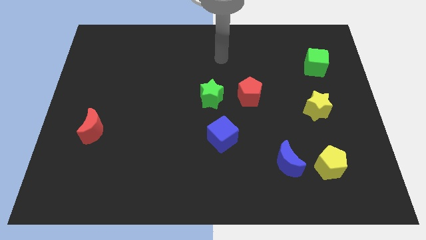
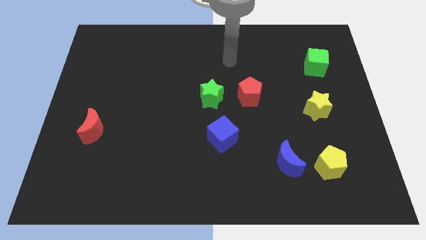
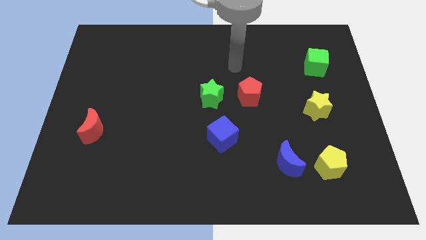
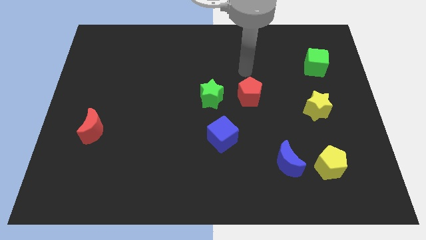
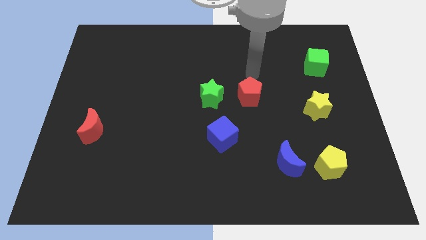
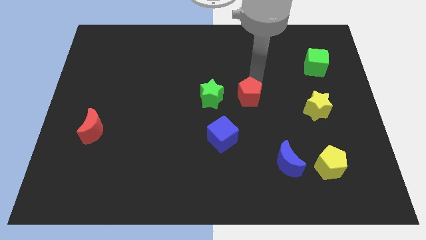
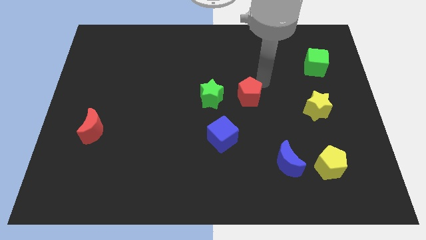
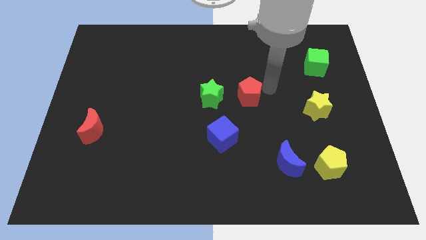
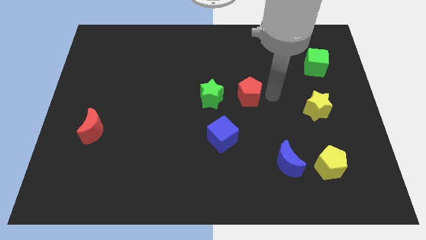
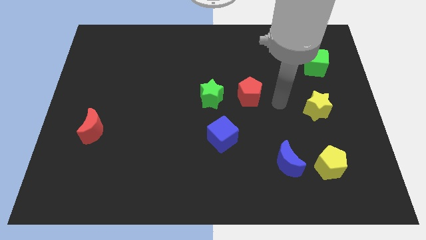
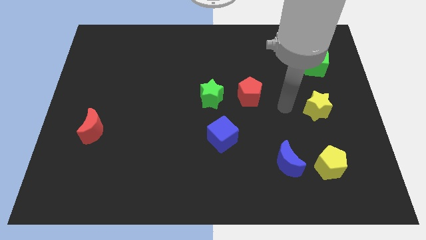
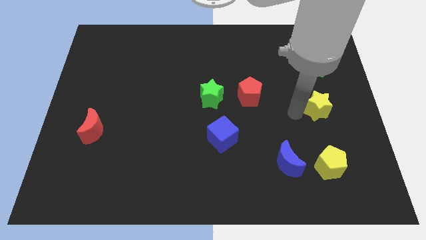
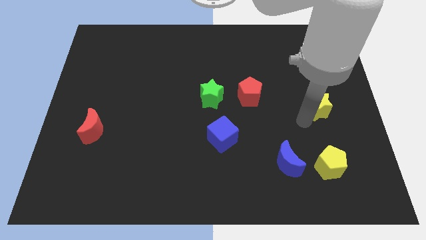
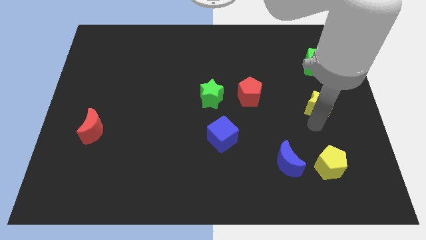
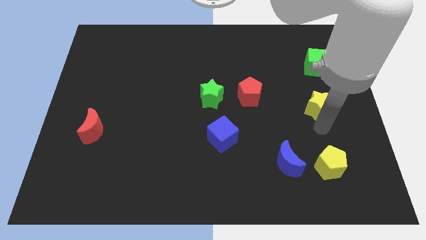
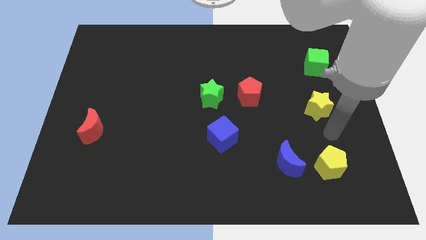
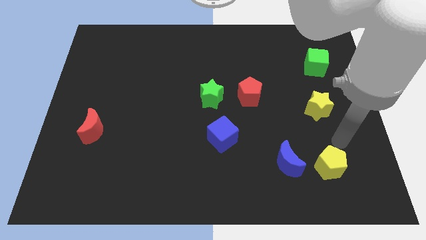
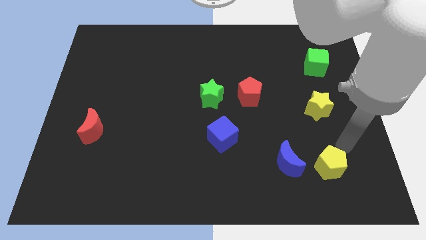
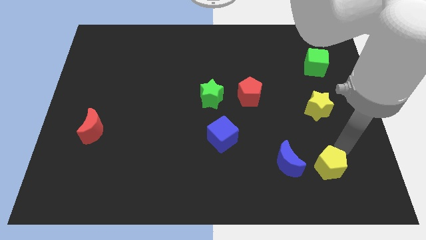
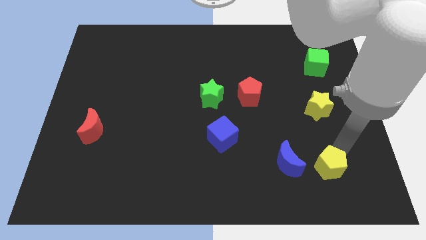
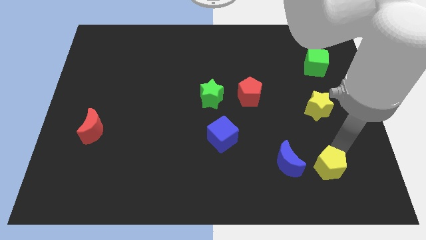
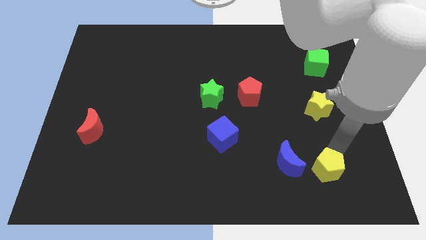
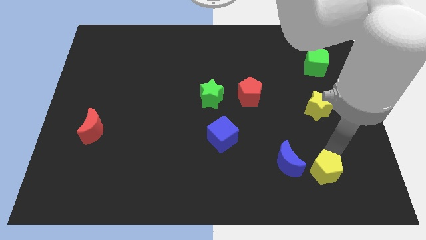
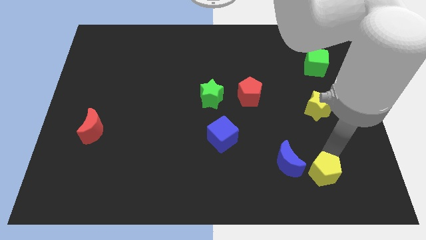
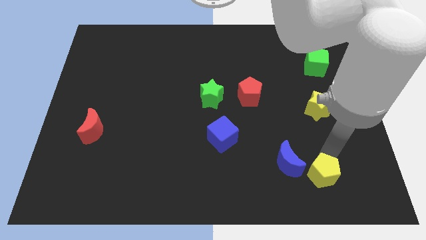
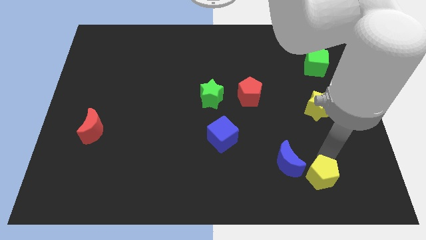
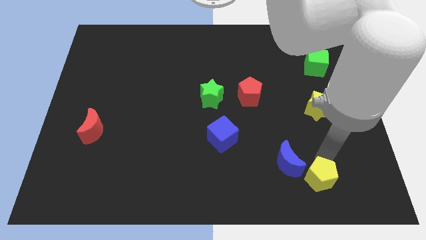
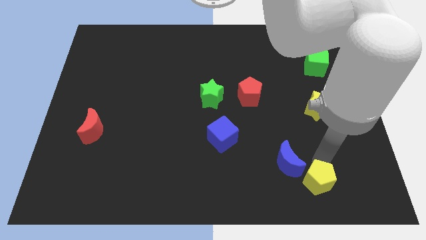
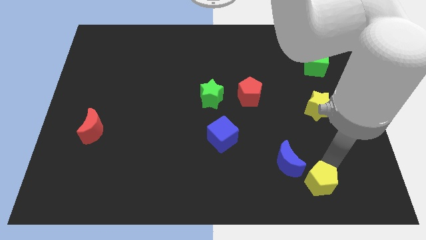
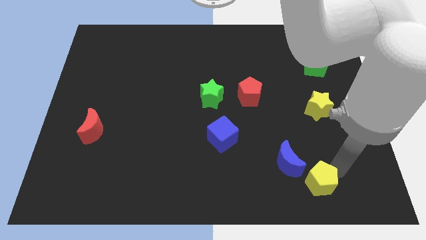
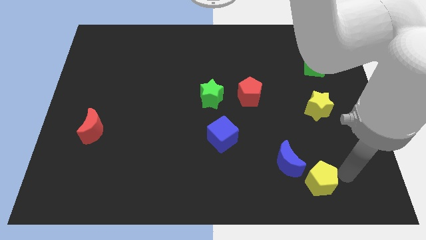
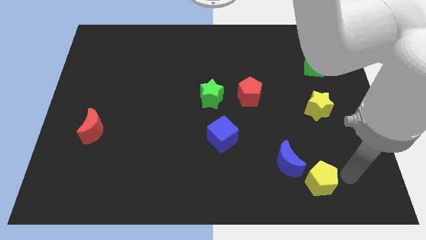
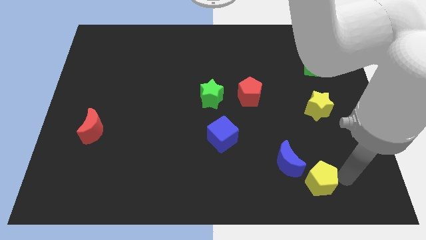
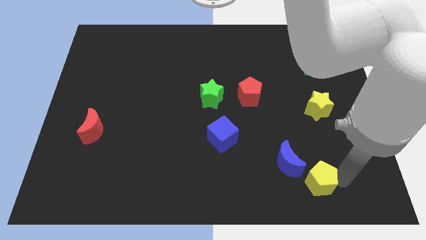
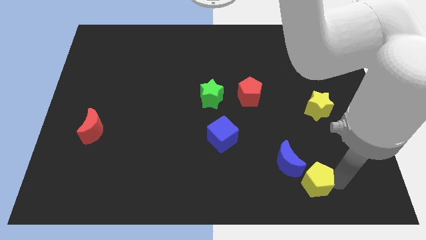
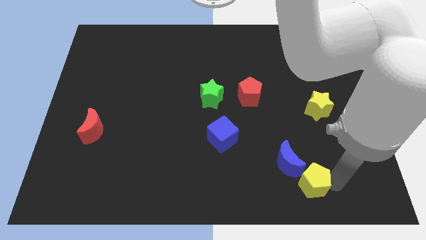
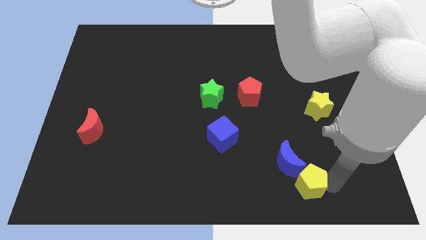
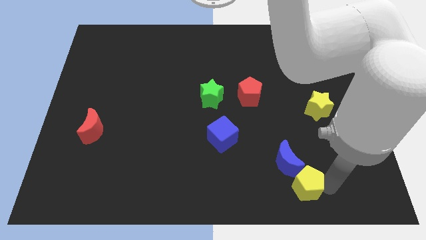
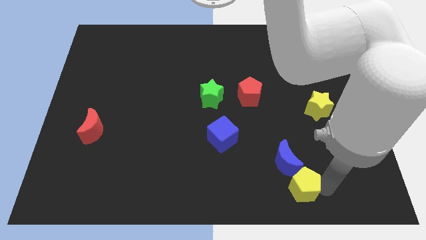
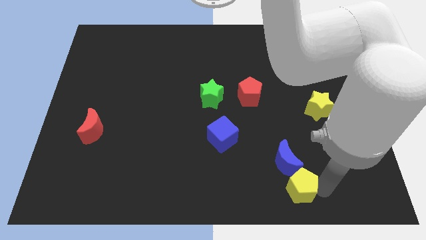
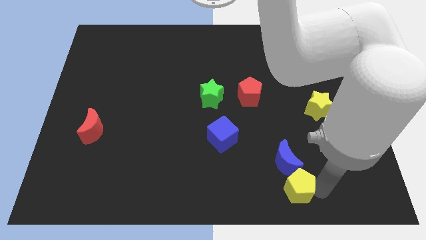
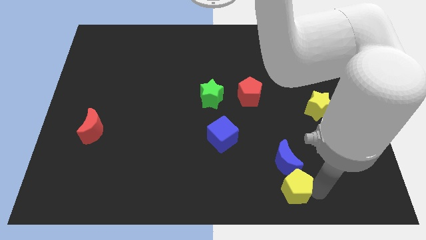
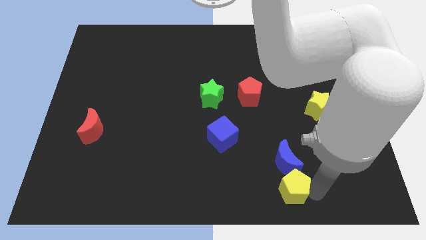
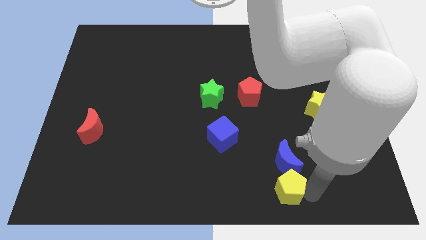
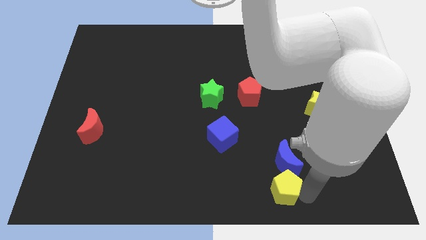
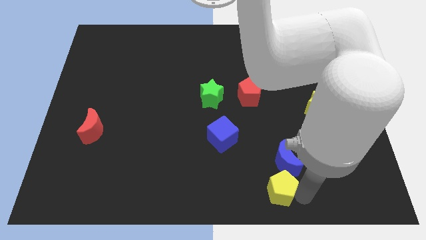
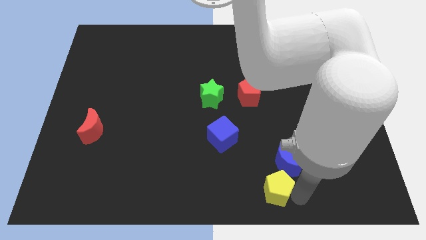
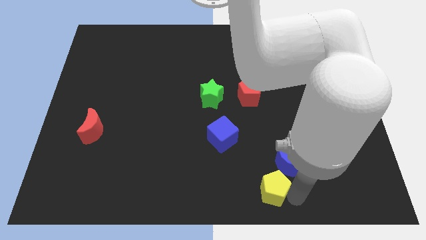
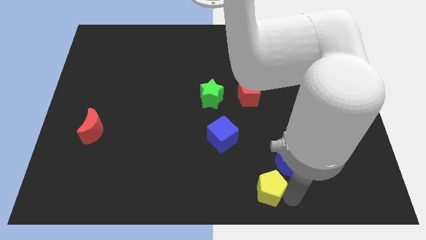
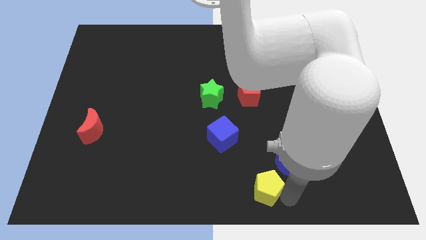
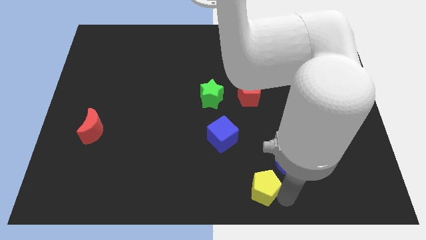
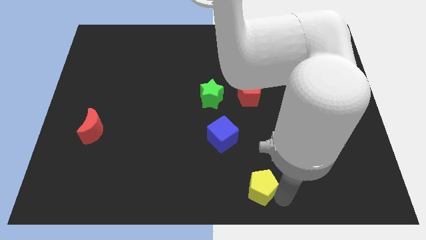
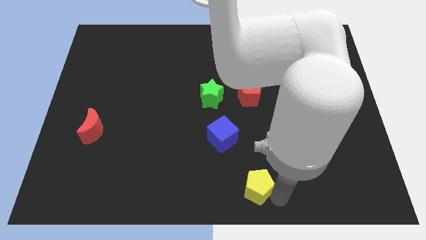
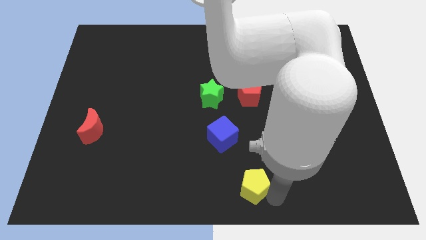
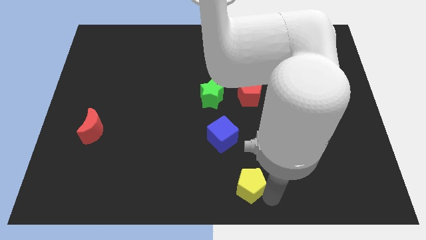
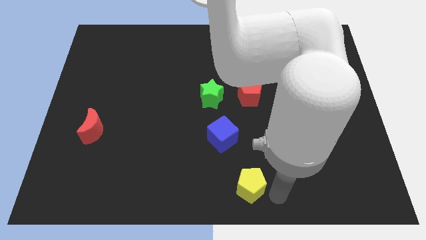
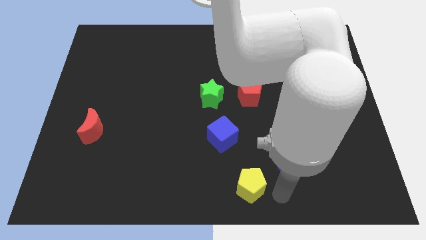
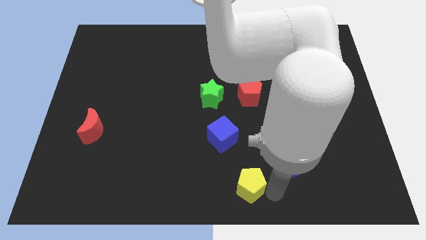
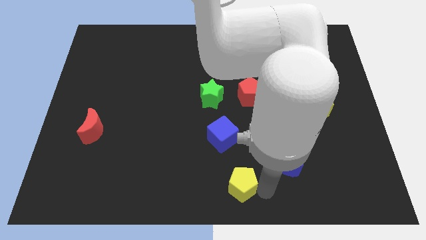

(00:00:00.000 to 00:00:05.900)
push the yellow pentagon to the bottom of the blue cube

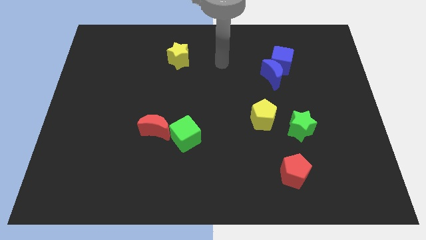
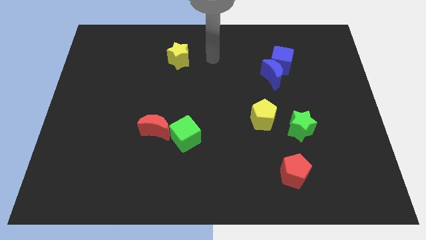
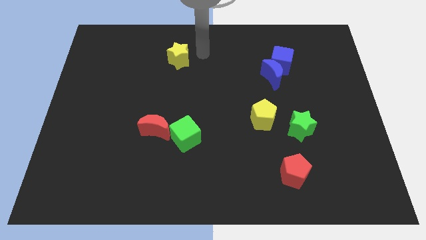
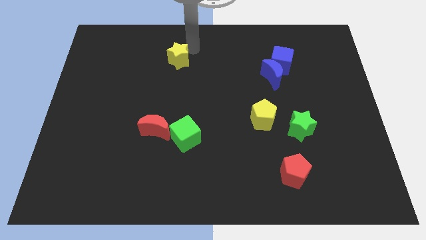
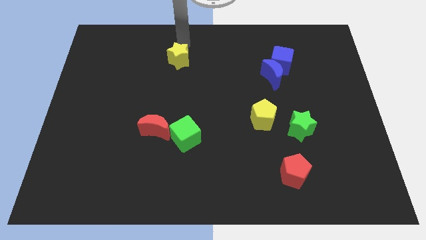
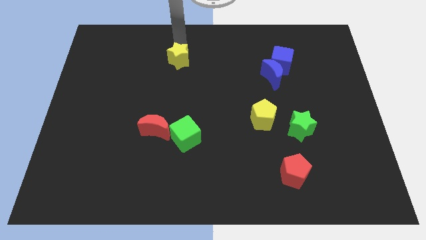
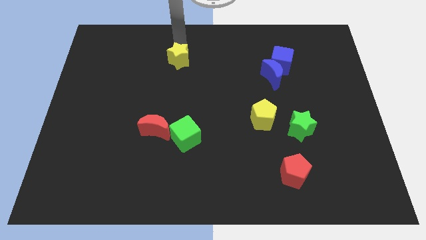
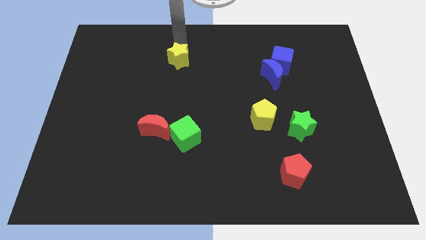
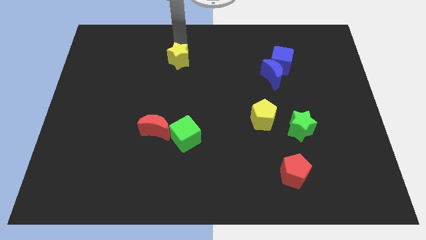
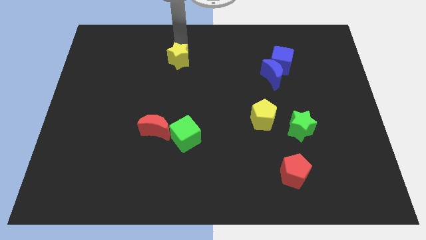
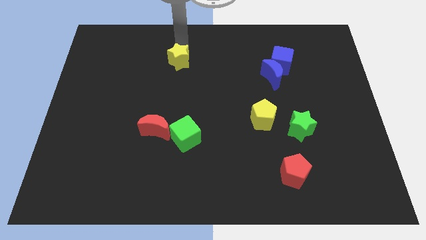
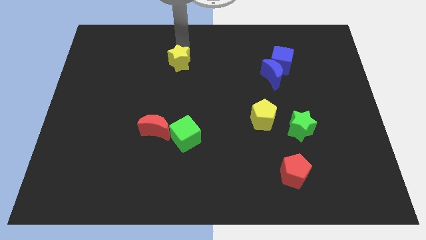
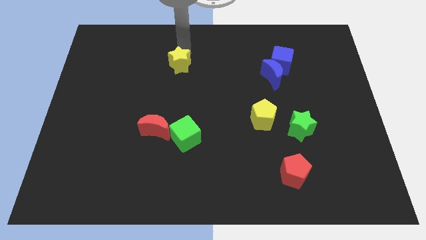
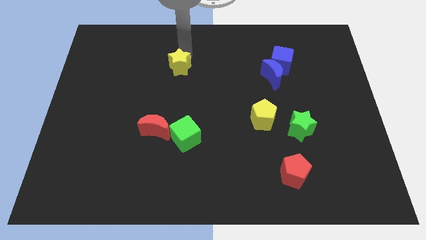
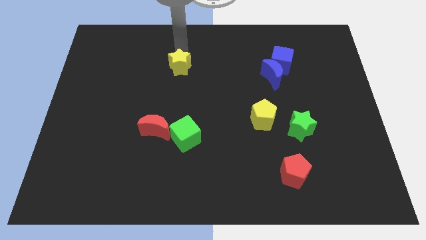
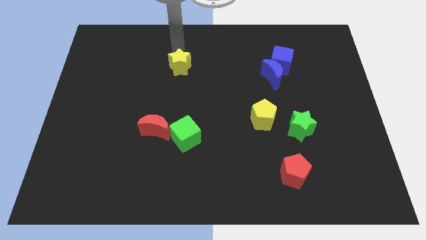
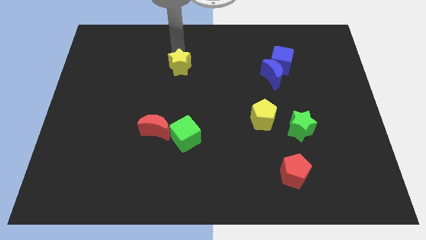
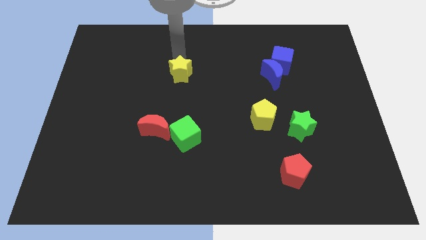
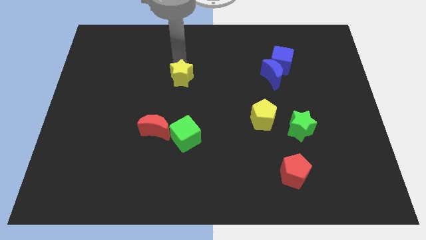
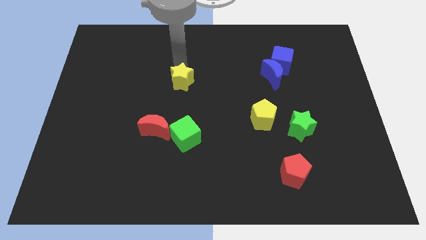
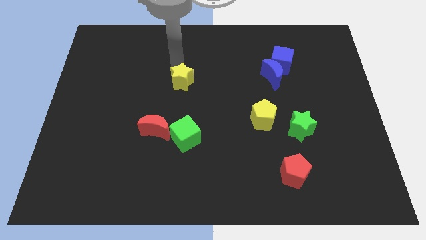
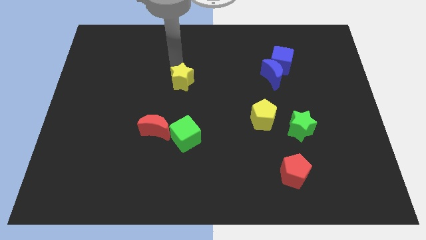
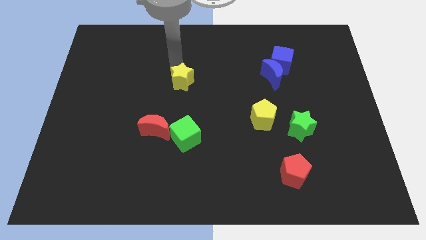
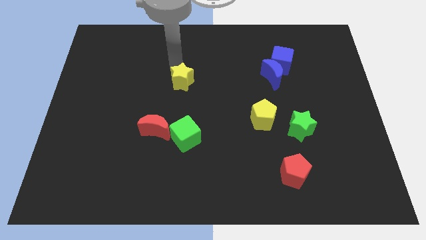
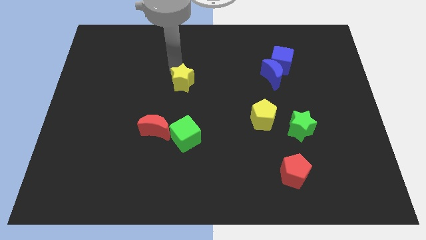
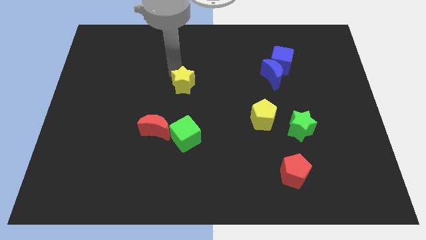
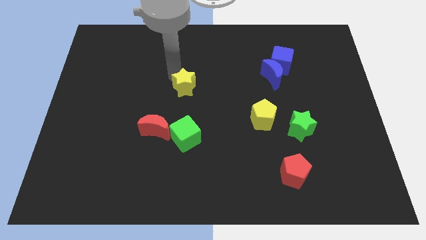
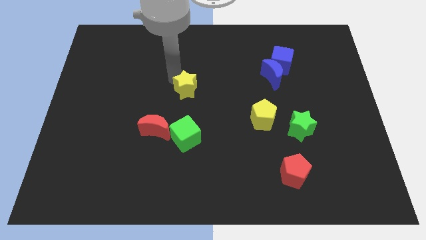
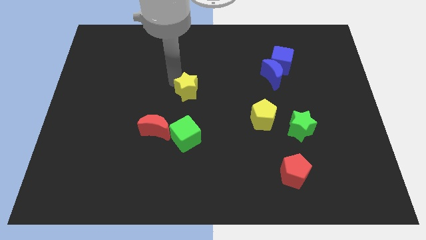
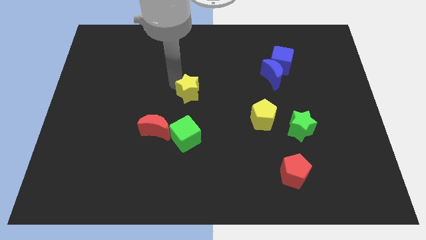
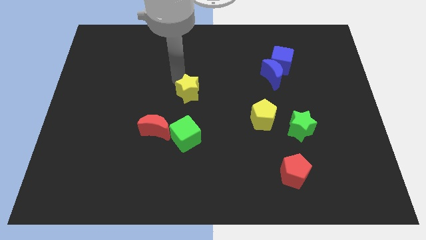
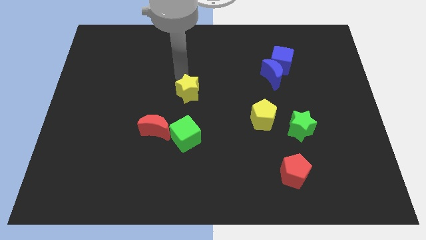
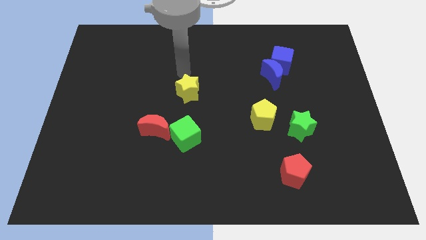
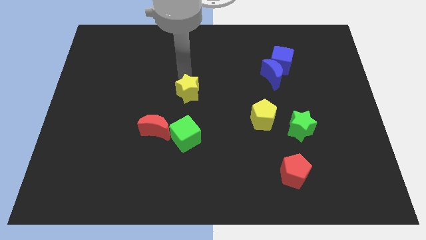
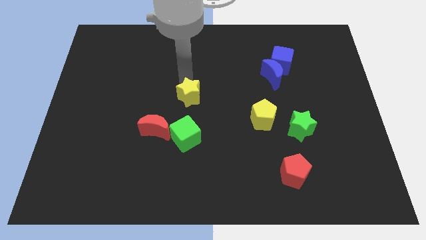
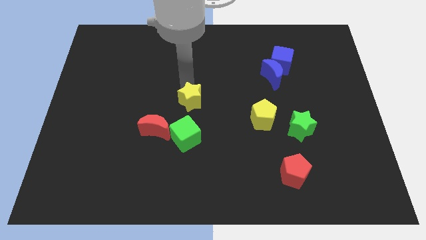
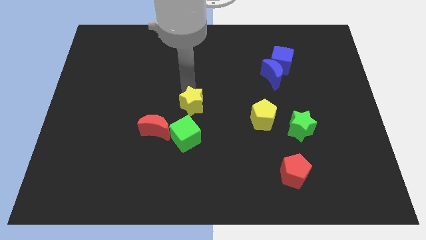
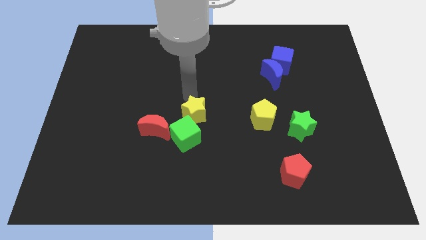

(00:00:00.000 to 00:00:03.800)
slide the yellow star to the right side of the red moon
